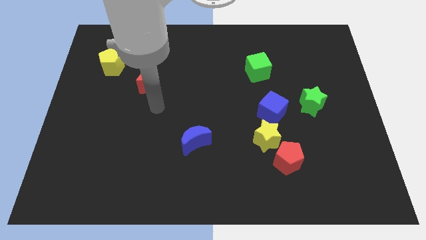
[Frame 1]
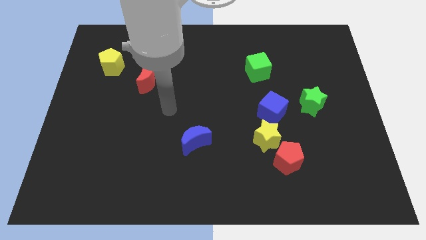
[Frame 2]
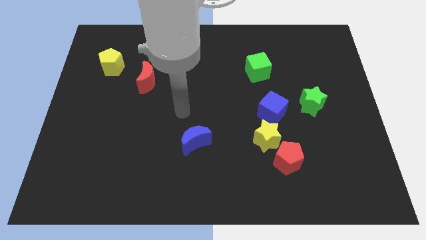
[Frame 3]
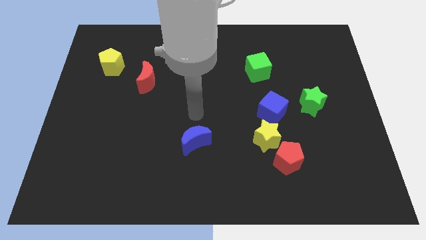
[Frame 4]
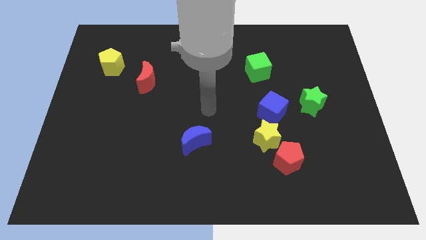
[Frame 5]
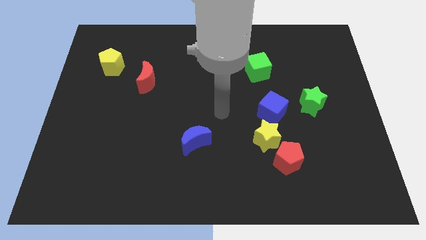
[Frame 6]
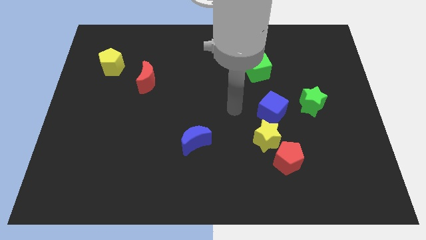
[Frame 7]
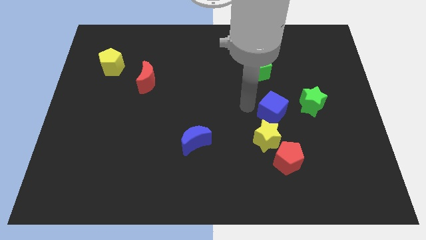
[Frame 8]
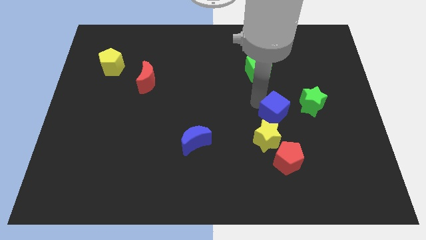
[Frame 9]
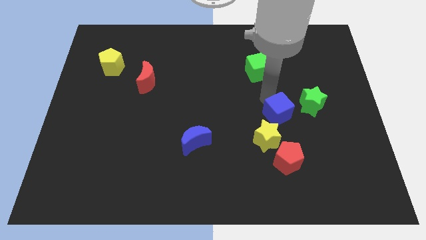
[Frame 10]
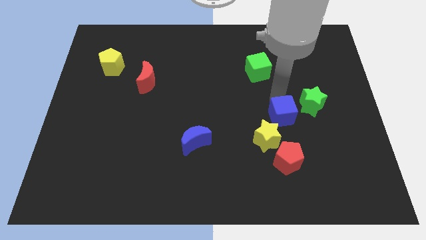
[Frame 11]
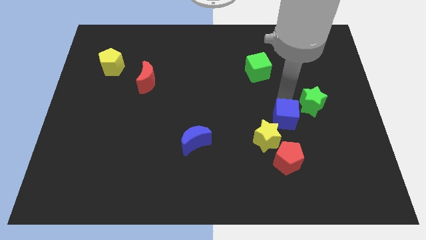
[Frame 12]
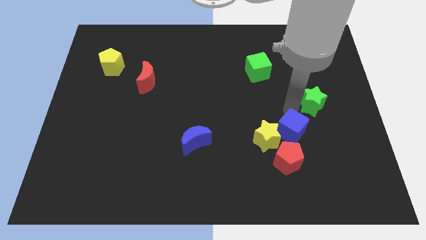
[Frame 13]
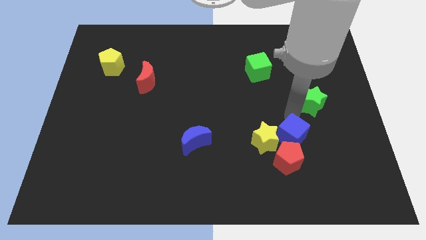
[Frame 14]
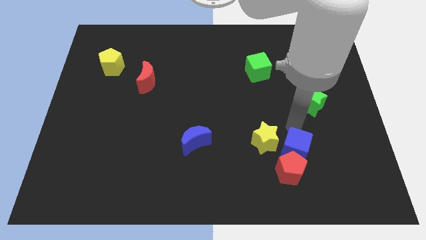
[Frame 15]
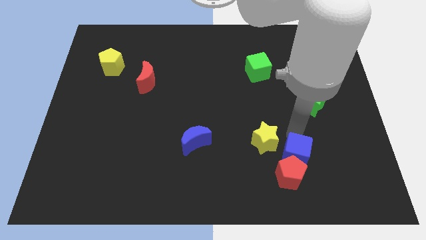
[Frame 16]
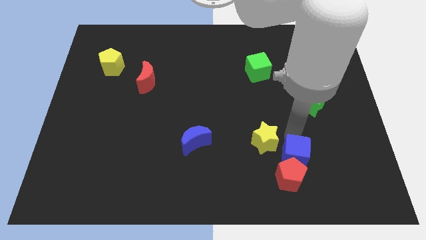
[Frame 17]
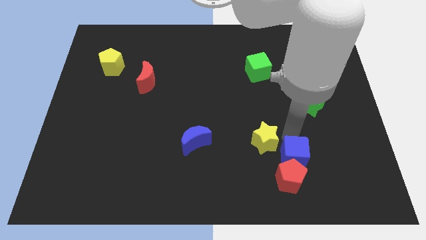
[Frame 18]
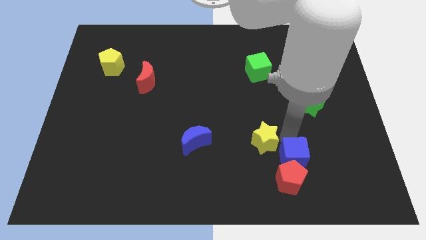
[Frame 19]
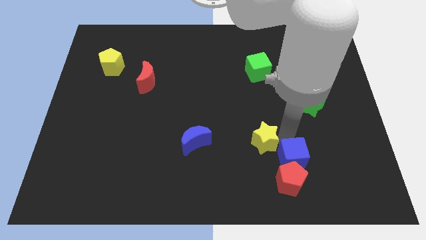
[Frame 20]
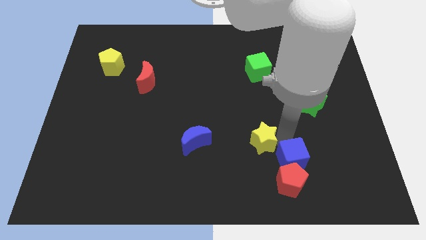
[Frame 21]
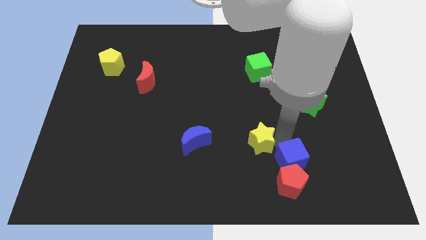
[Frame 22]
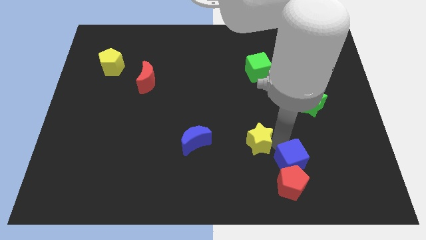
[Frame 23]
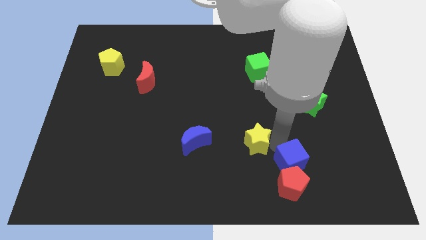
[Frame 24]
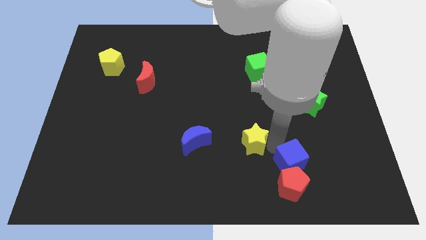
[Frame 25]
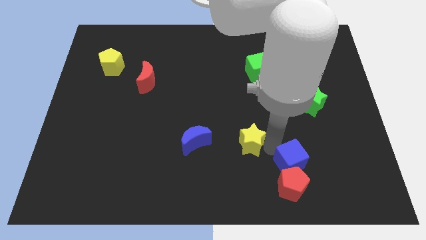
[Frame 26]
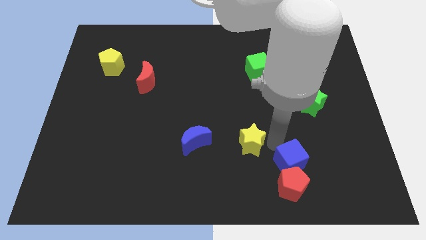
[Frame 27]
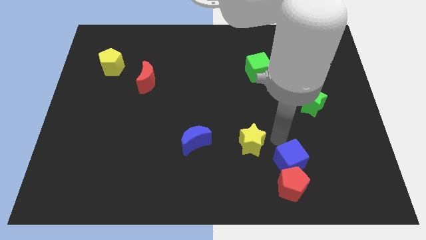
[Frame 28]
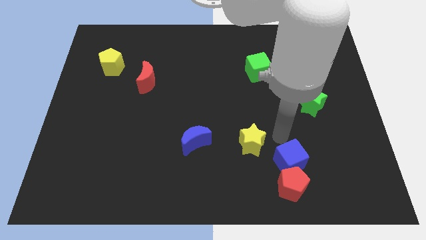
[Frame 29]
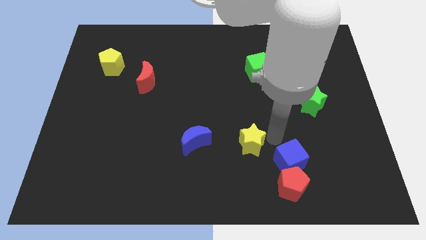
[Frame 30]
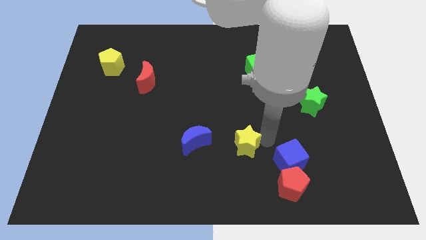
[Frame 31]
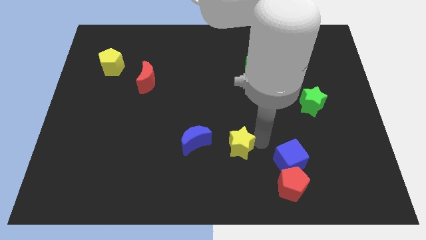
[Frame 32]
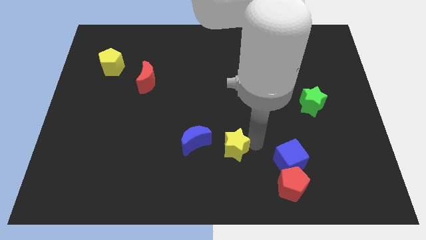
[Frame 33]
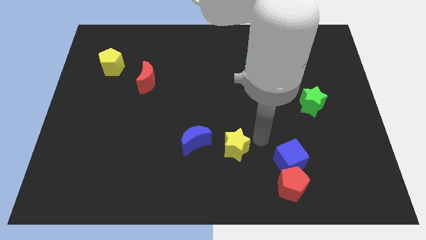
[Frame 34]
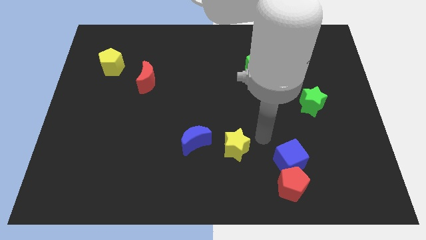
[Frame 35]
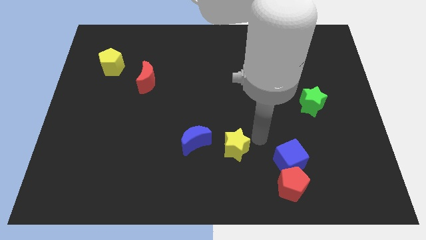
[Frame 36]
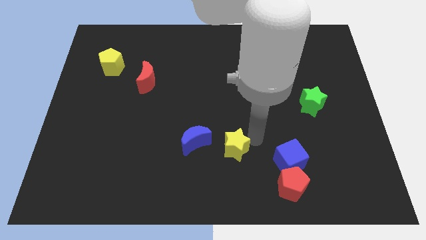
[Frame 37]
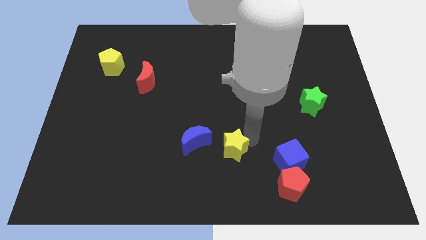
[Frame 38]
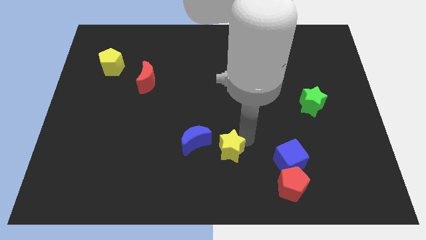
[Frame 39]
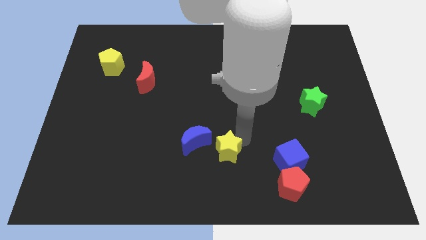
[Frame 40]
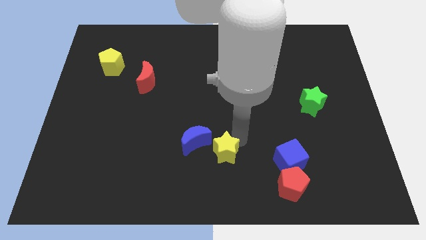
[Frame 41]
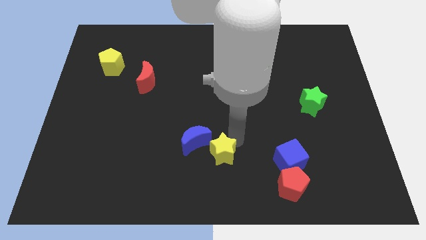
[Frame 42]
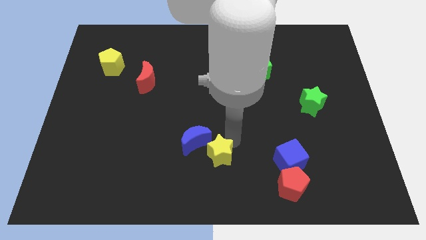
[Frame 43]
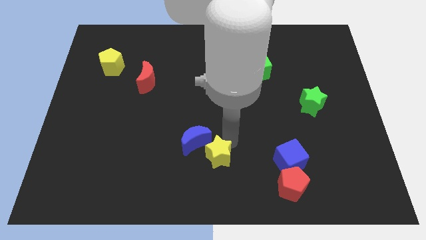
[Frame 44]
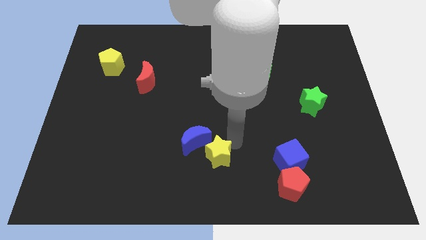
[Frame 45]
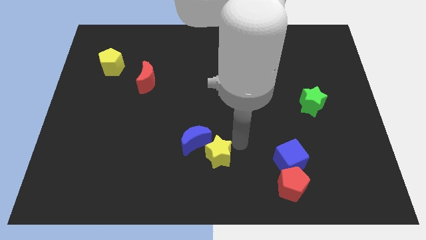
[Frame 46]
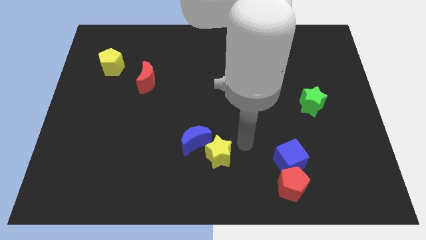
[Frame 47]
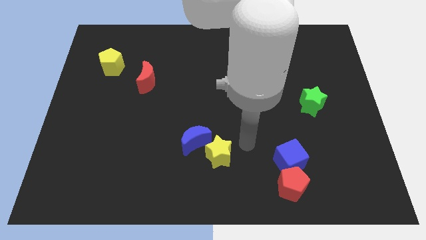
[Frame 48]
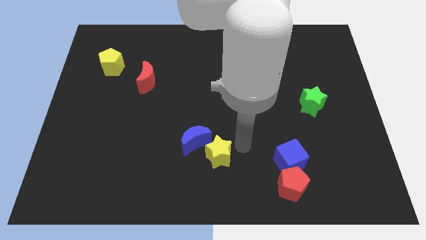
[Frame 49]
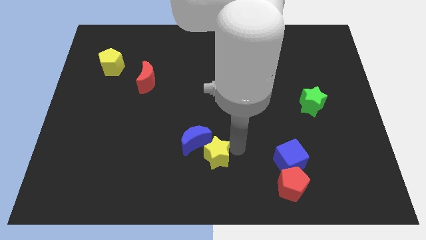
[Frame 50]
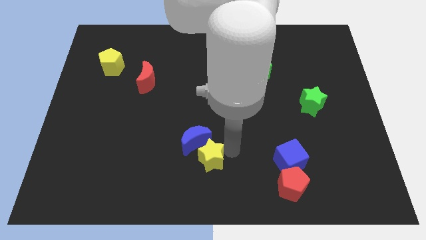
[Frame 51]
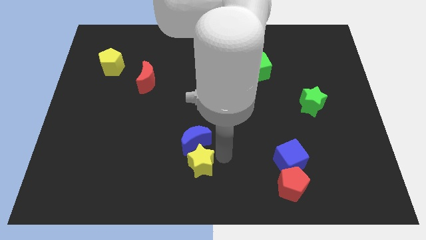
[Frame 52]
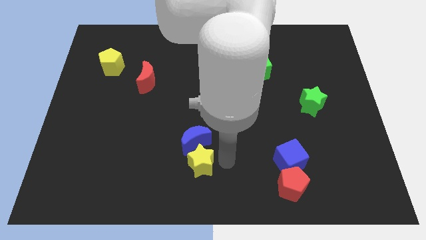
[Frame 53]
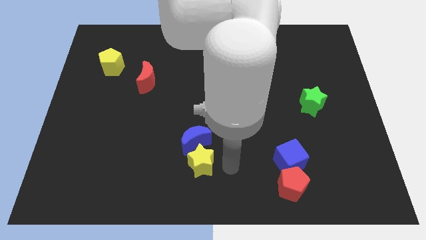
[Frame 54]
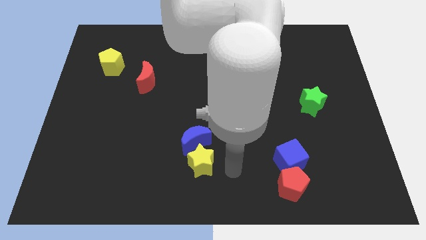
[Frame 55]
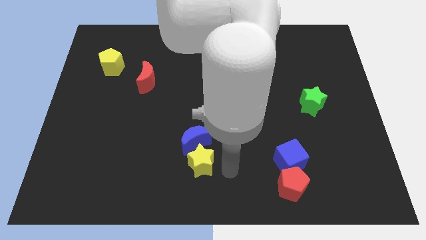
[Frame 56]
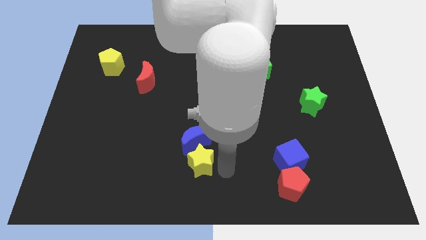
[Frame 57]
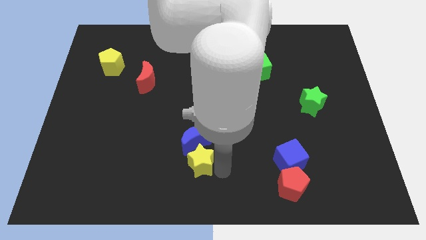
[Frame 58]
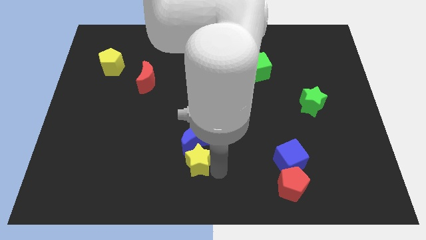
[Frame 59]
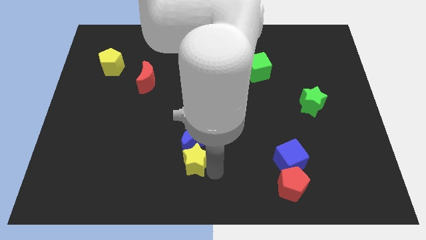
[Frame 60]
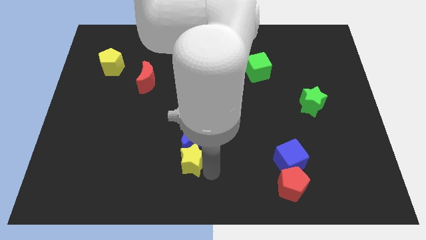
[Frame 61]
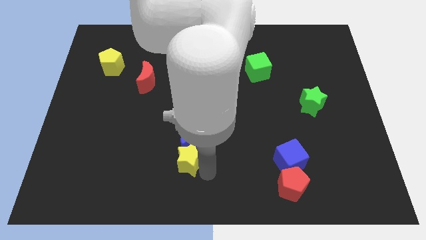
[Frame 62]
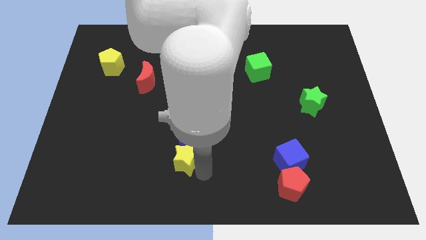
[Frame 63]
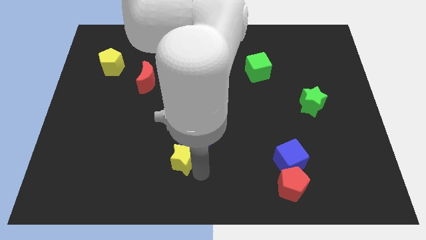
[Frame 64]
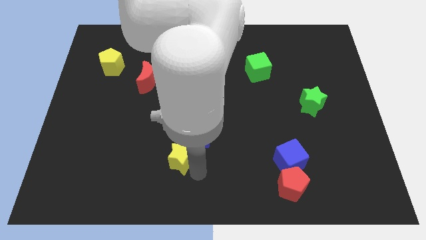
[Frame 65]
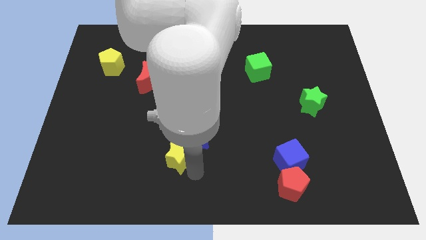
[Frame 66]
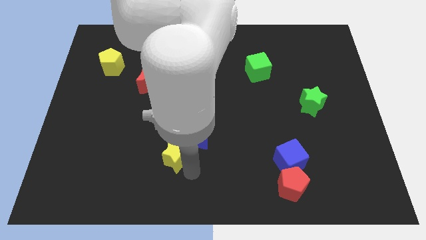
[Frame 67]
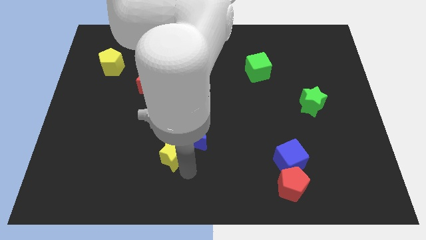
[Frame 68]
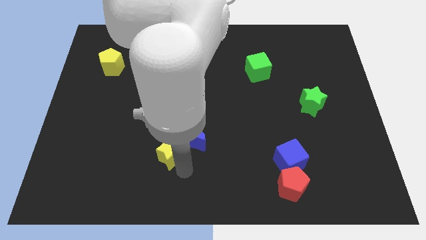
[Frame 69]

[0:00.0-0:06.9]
slide the yellow star to the left

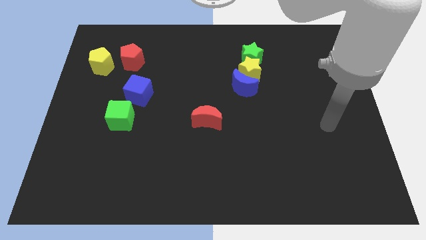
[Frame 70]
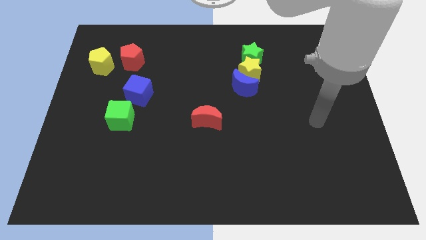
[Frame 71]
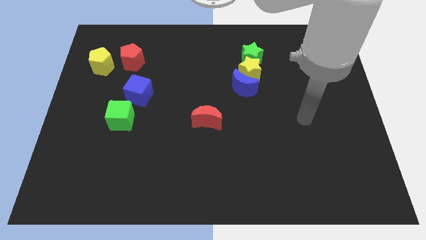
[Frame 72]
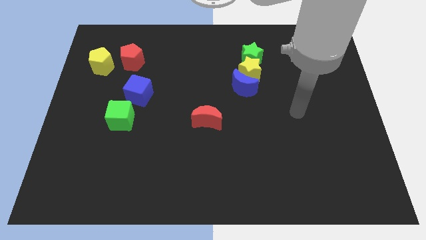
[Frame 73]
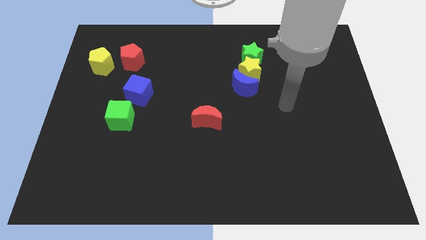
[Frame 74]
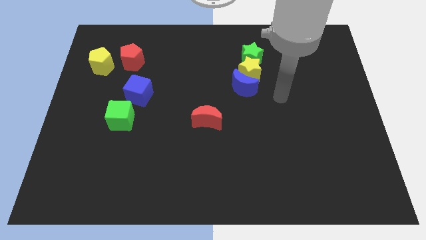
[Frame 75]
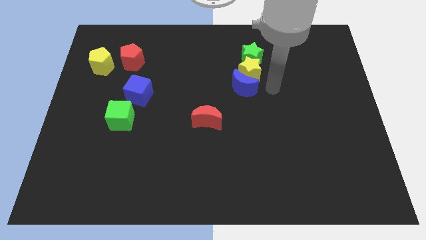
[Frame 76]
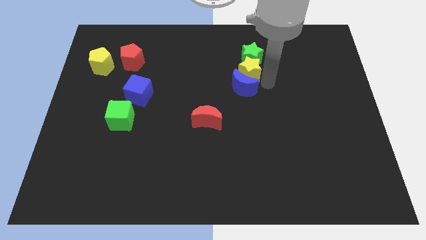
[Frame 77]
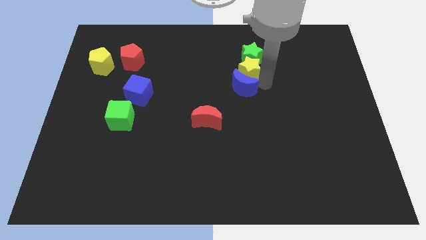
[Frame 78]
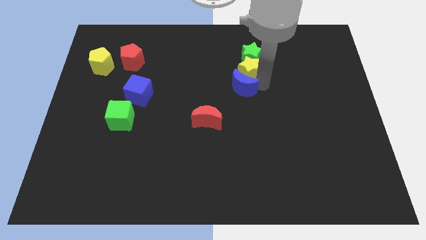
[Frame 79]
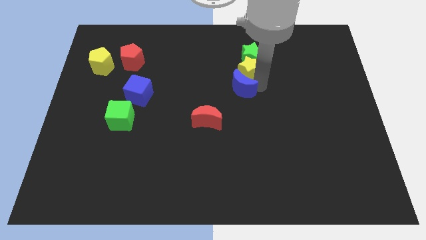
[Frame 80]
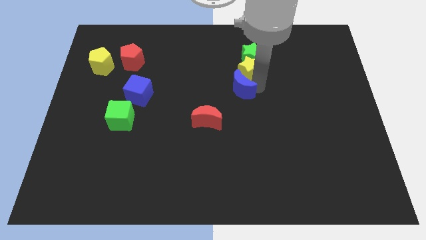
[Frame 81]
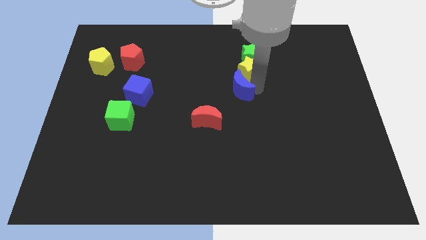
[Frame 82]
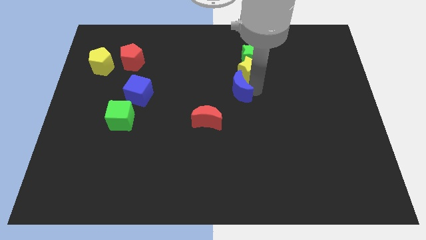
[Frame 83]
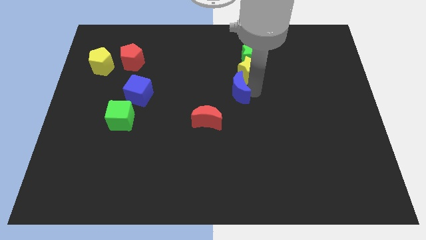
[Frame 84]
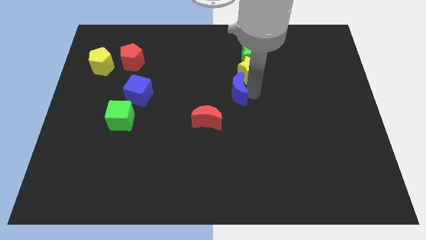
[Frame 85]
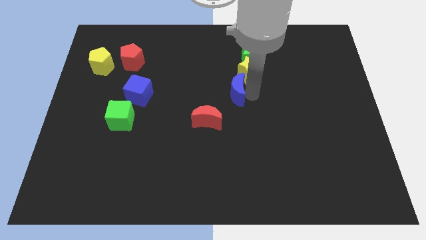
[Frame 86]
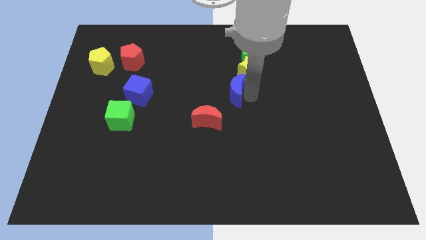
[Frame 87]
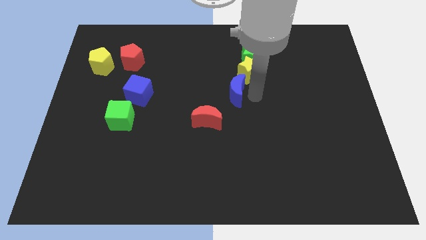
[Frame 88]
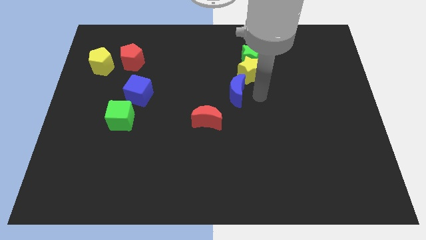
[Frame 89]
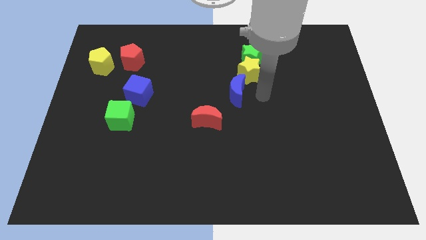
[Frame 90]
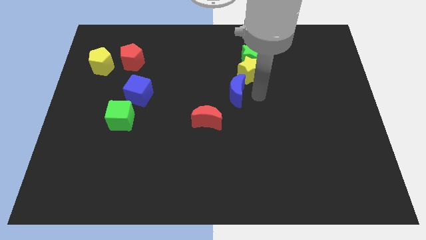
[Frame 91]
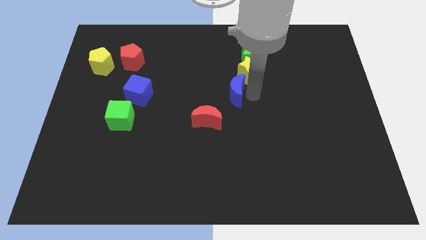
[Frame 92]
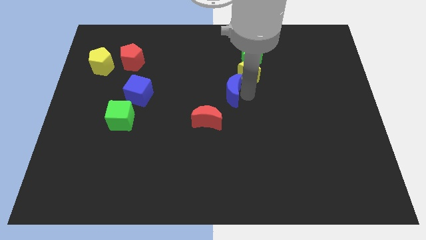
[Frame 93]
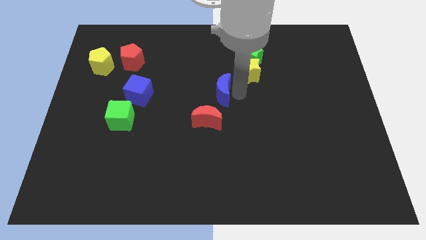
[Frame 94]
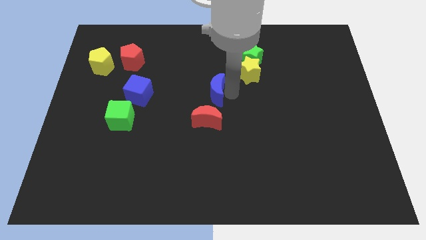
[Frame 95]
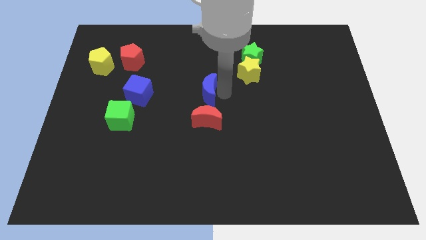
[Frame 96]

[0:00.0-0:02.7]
slide the blue moon a bit left
